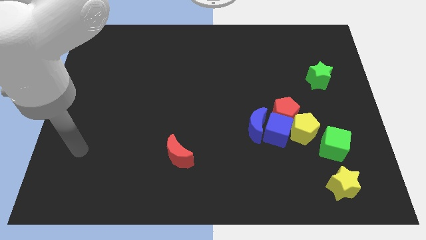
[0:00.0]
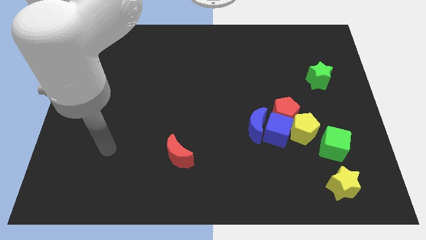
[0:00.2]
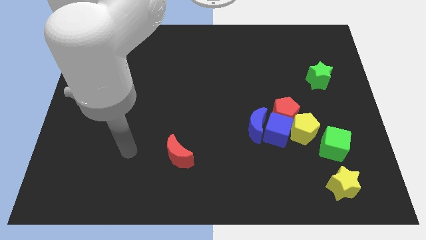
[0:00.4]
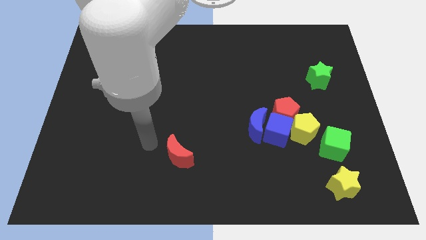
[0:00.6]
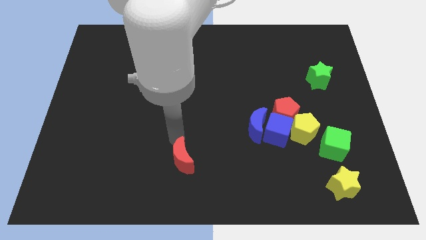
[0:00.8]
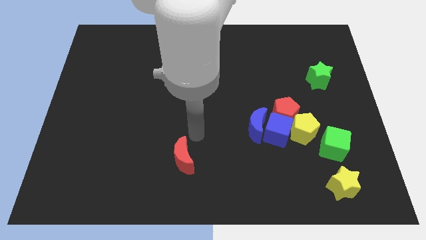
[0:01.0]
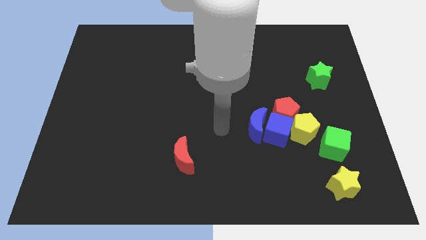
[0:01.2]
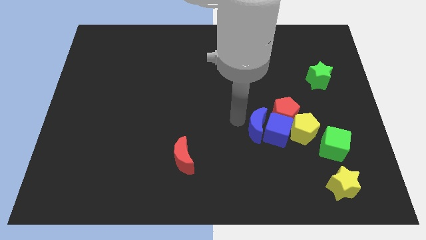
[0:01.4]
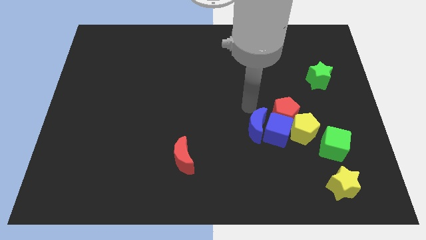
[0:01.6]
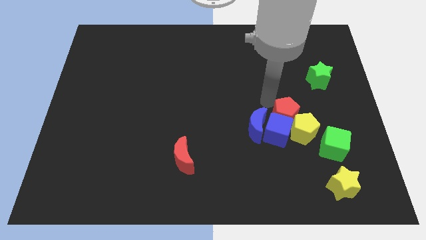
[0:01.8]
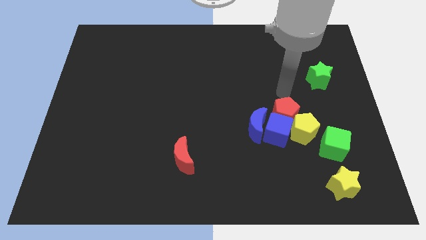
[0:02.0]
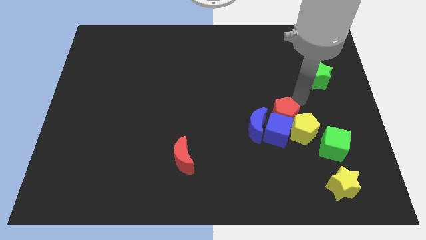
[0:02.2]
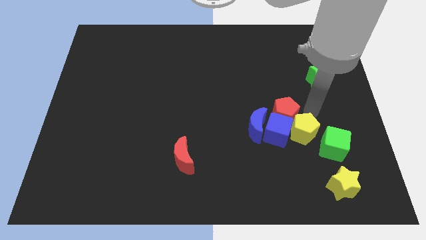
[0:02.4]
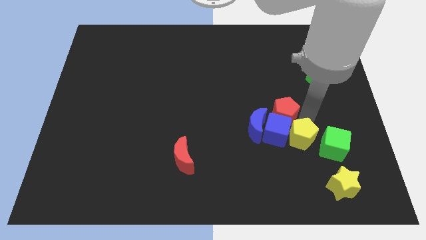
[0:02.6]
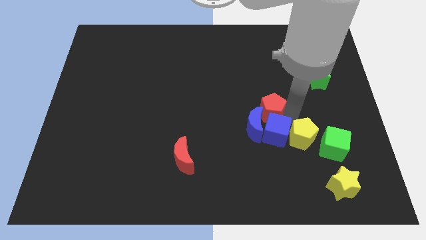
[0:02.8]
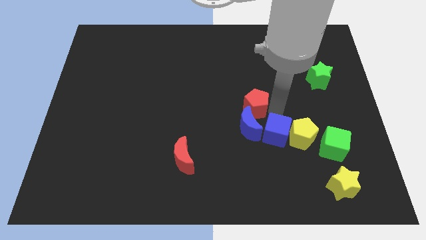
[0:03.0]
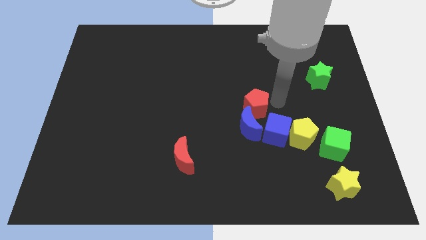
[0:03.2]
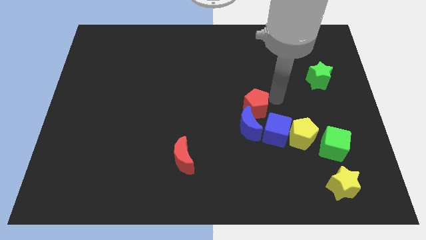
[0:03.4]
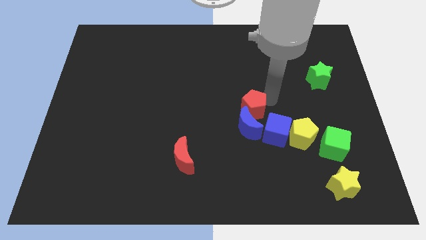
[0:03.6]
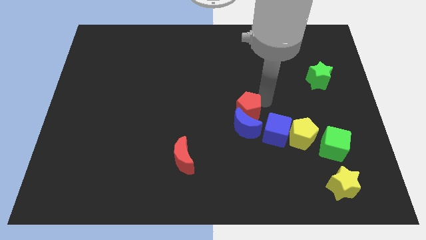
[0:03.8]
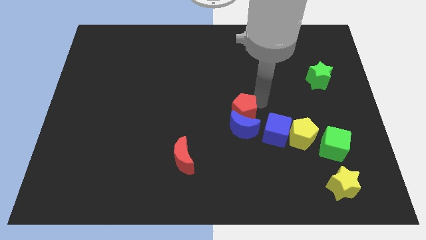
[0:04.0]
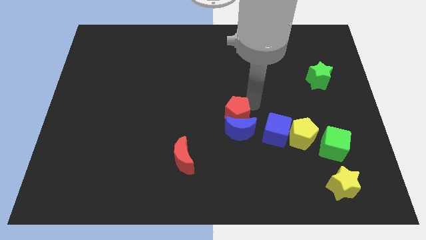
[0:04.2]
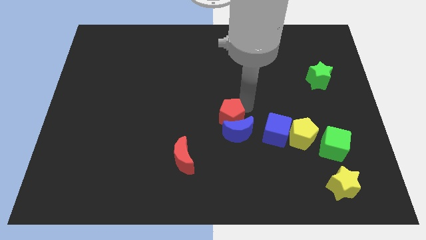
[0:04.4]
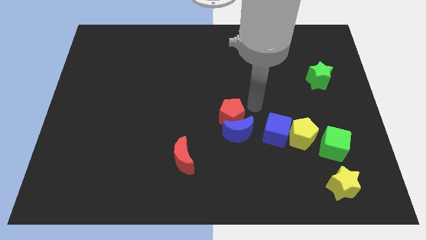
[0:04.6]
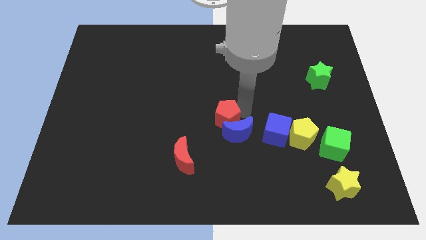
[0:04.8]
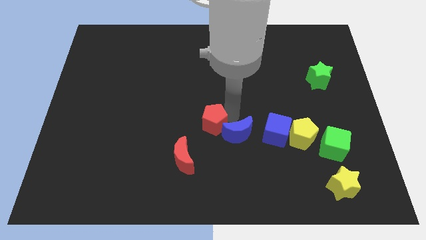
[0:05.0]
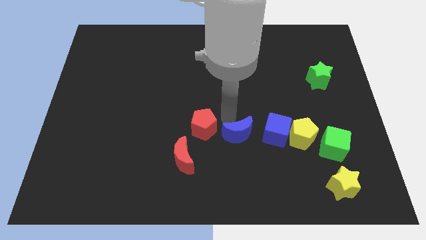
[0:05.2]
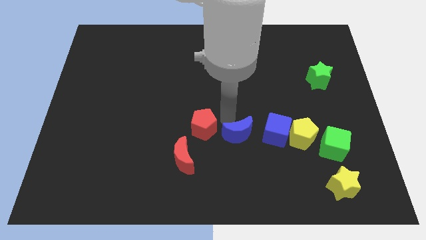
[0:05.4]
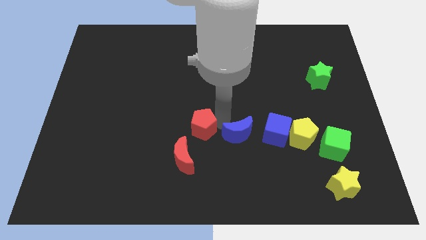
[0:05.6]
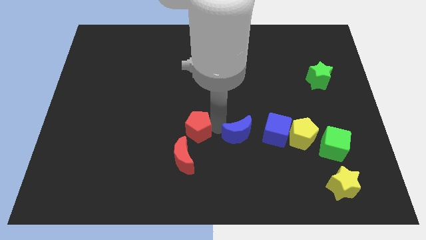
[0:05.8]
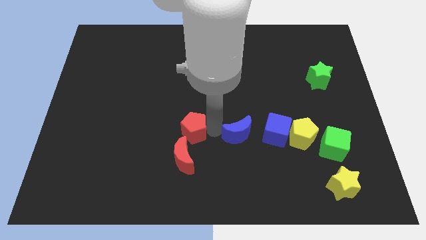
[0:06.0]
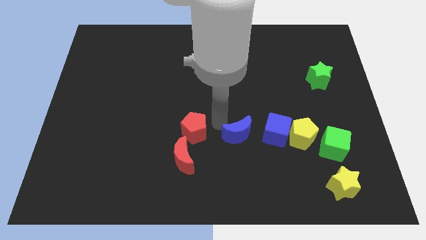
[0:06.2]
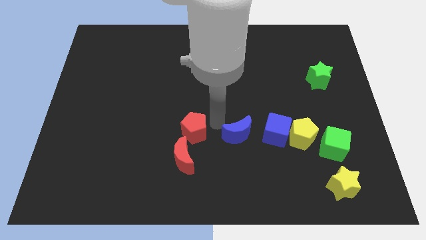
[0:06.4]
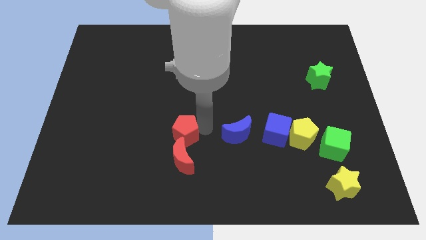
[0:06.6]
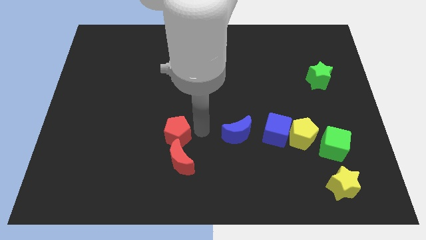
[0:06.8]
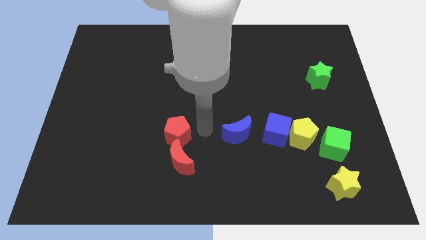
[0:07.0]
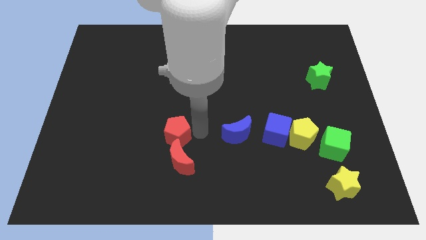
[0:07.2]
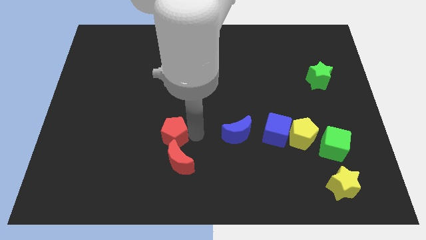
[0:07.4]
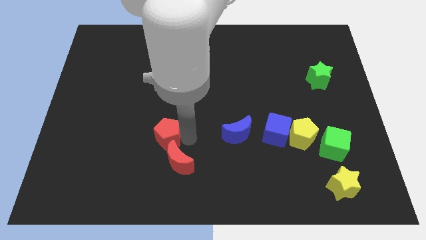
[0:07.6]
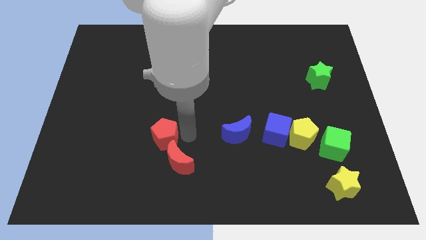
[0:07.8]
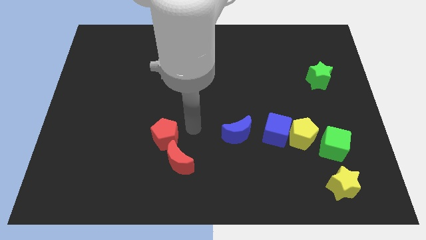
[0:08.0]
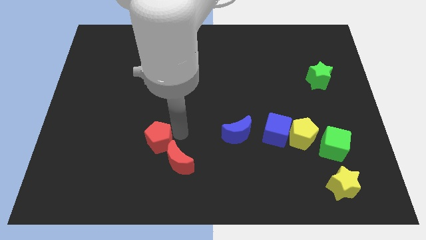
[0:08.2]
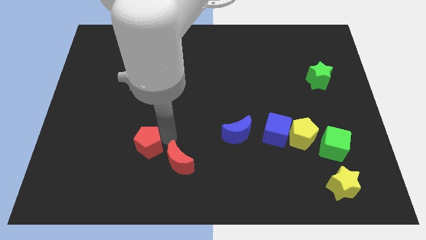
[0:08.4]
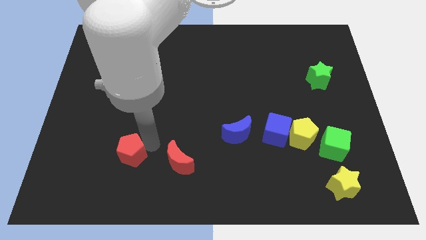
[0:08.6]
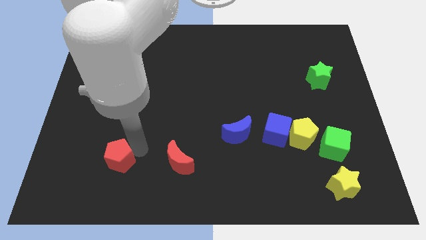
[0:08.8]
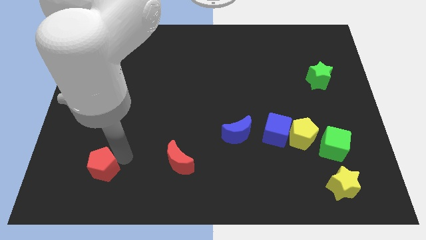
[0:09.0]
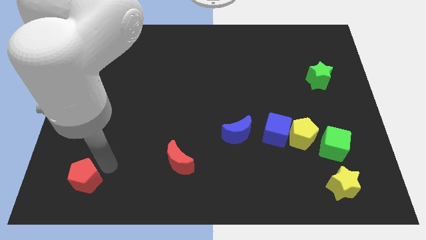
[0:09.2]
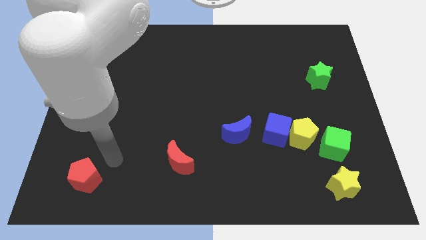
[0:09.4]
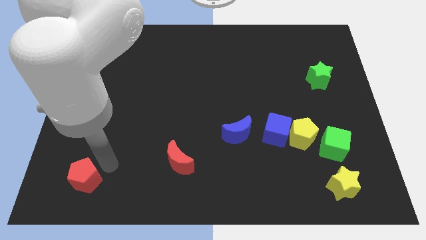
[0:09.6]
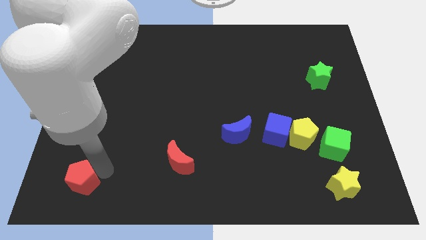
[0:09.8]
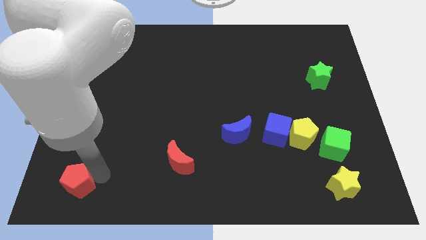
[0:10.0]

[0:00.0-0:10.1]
push the red pentagon to the lower left corner

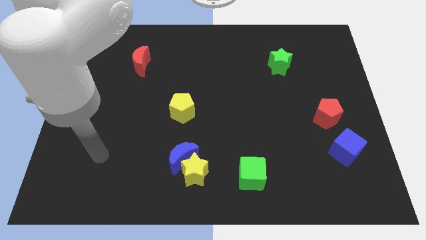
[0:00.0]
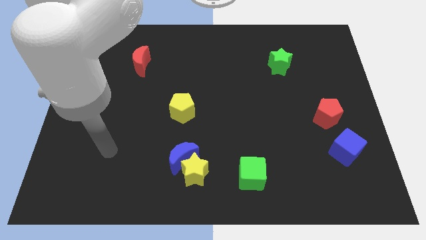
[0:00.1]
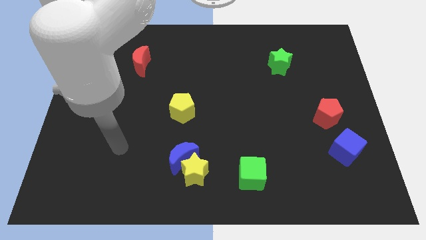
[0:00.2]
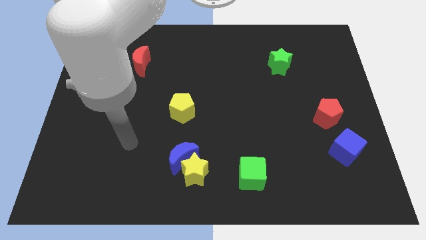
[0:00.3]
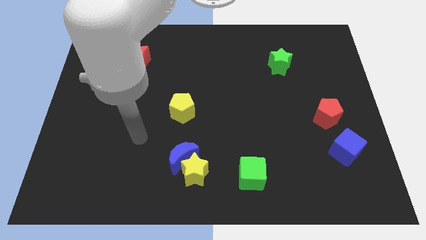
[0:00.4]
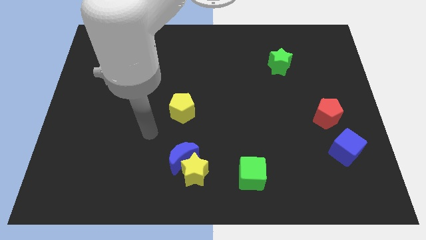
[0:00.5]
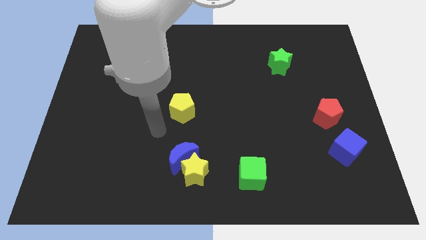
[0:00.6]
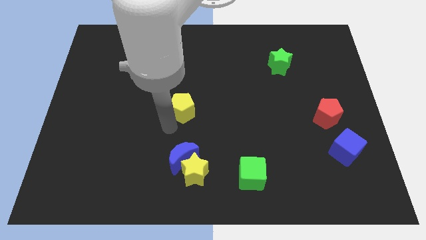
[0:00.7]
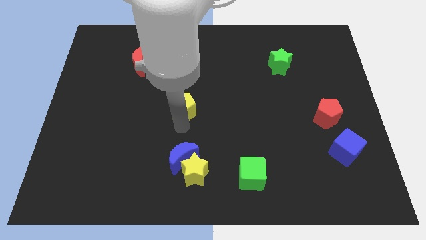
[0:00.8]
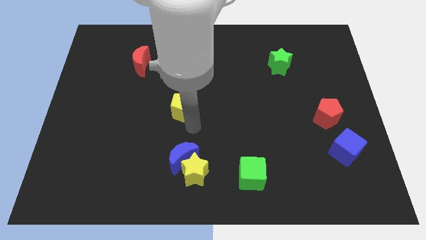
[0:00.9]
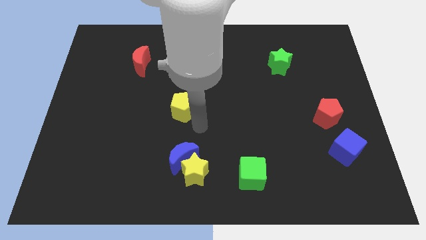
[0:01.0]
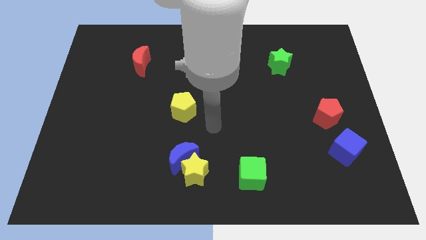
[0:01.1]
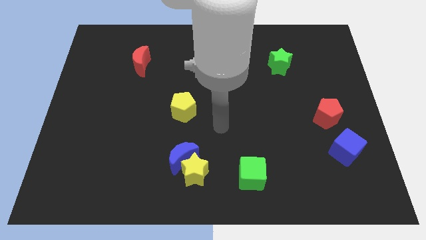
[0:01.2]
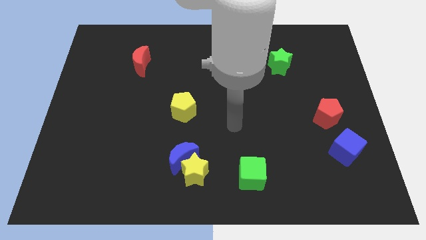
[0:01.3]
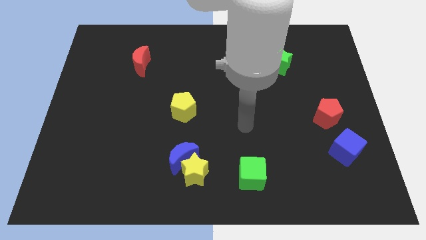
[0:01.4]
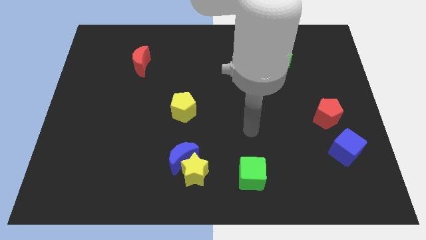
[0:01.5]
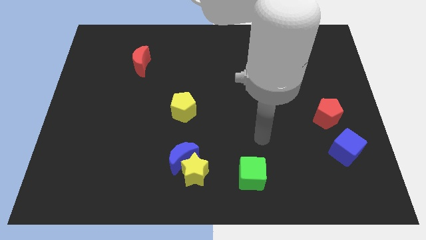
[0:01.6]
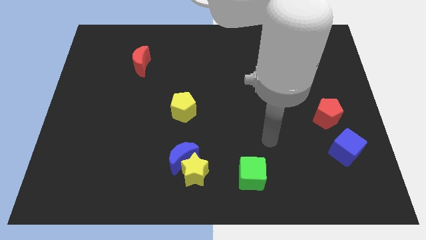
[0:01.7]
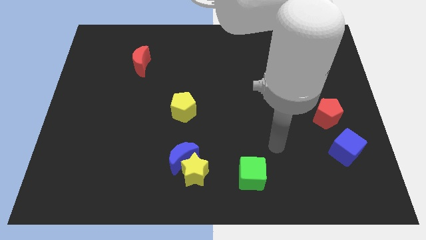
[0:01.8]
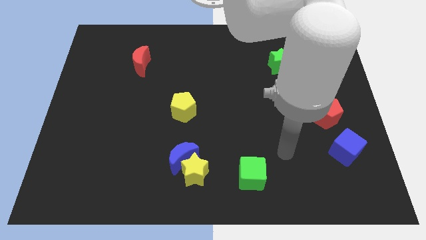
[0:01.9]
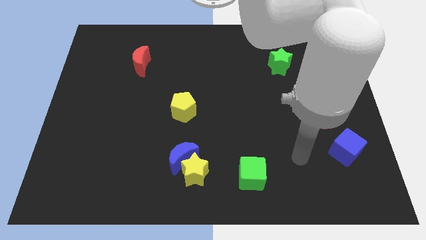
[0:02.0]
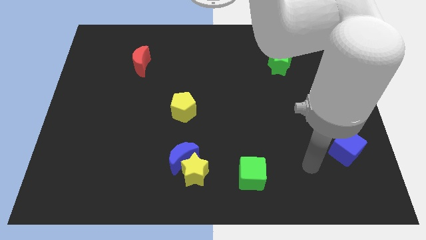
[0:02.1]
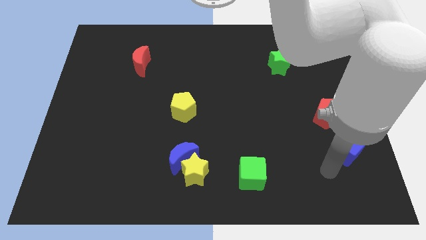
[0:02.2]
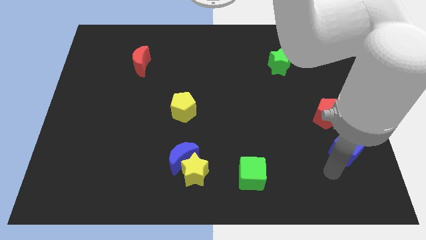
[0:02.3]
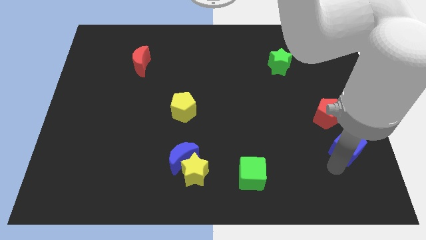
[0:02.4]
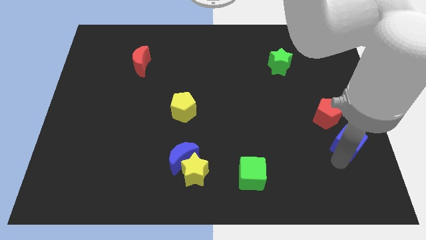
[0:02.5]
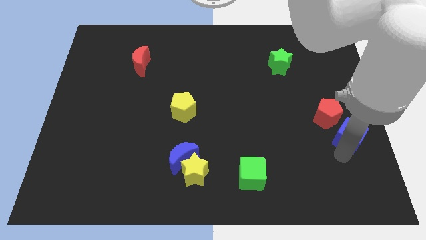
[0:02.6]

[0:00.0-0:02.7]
slide the blue cube to the center right

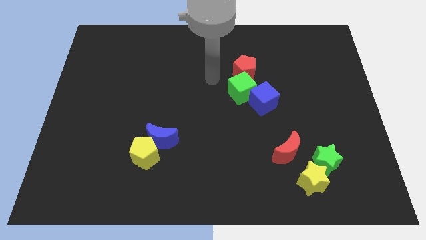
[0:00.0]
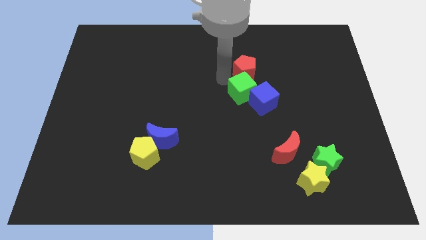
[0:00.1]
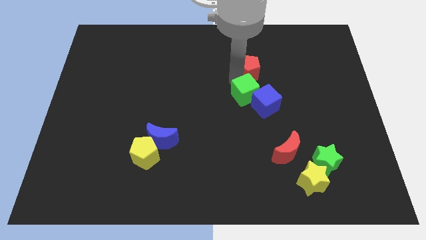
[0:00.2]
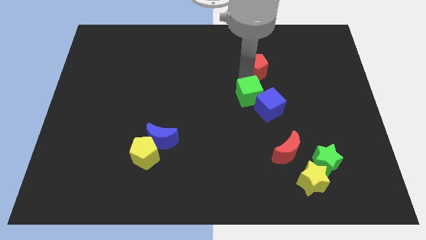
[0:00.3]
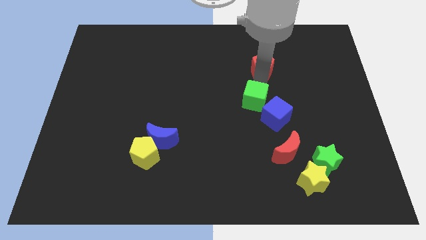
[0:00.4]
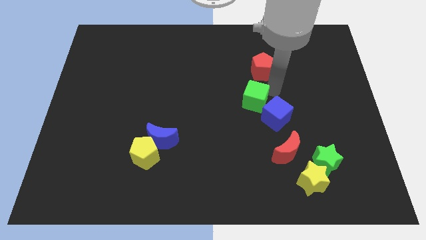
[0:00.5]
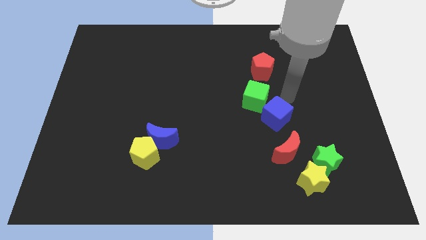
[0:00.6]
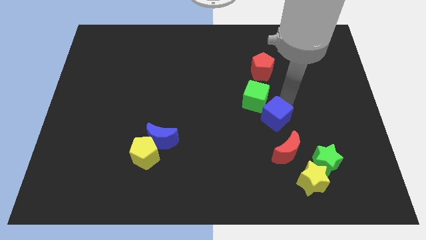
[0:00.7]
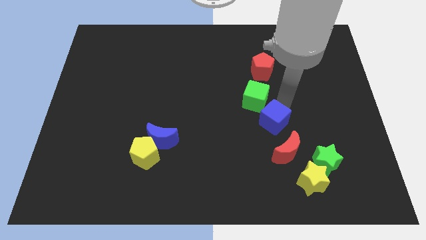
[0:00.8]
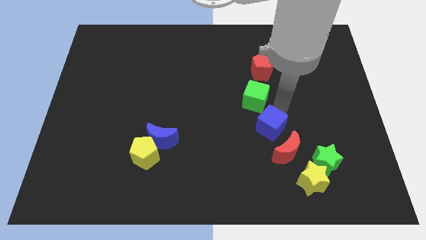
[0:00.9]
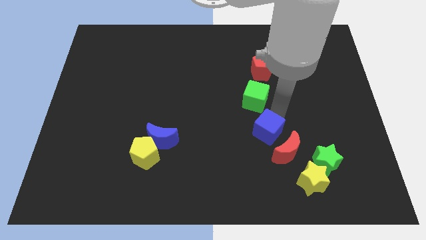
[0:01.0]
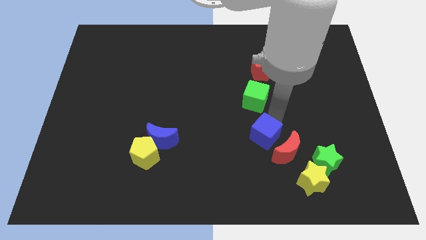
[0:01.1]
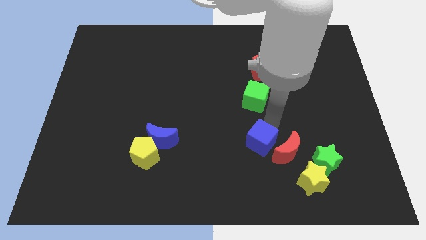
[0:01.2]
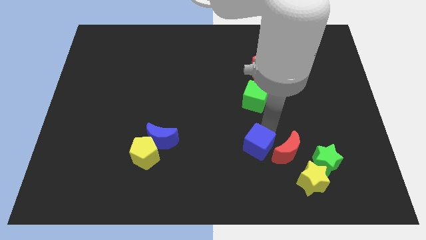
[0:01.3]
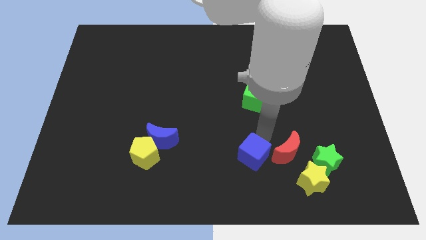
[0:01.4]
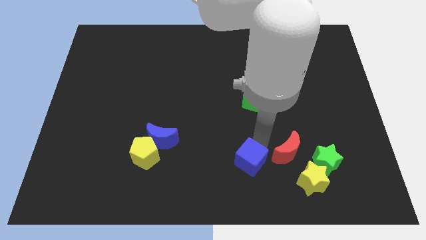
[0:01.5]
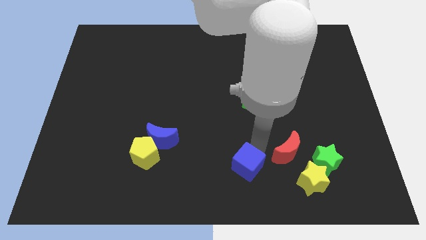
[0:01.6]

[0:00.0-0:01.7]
put the blue cube to the bottom side
